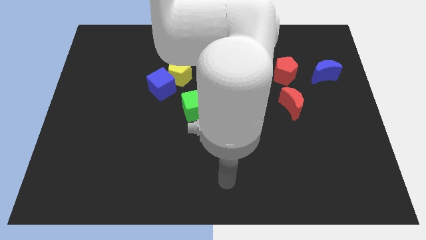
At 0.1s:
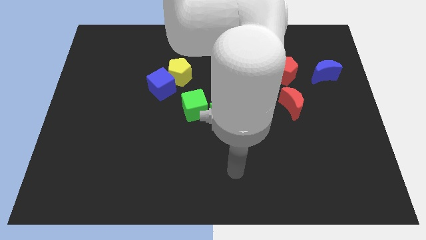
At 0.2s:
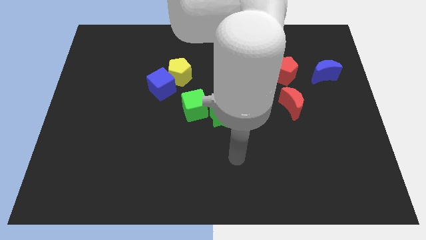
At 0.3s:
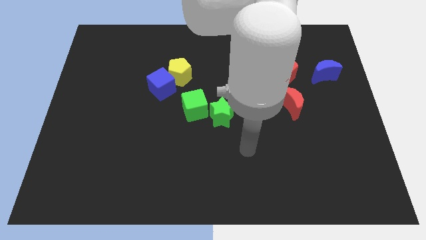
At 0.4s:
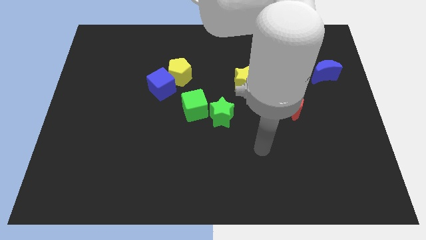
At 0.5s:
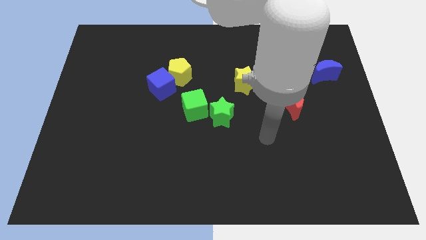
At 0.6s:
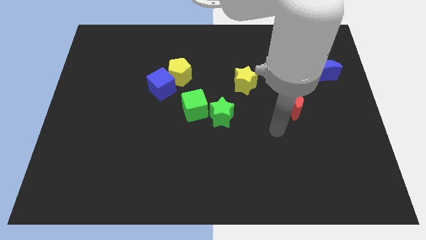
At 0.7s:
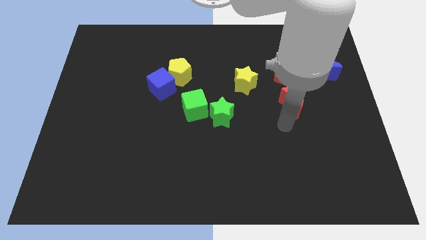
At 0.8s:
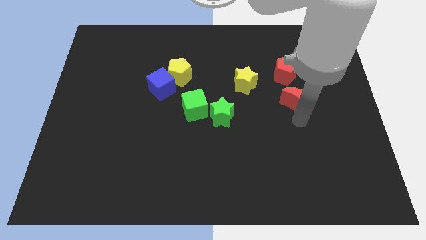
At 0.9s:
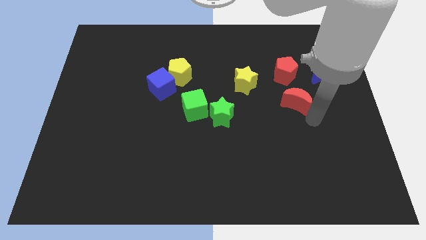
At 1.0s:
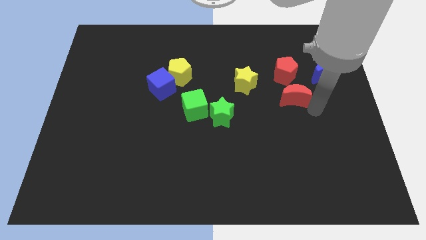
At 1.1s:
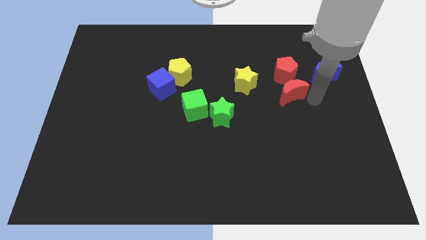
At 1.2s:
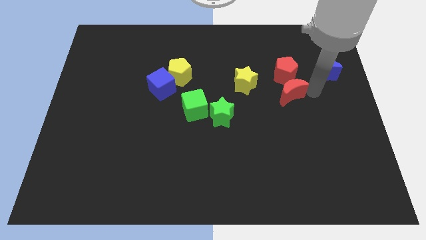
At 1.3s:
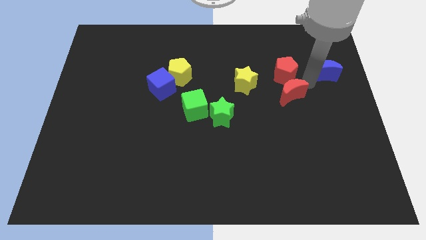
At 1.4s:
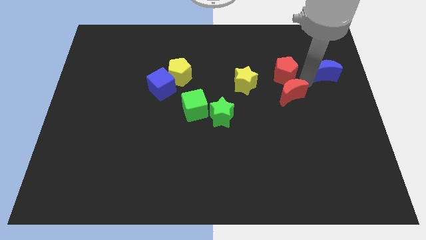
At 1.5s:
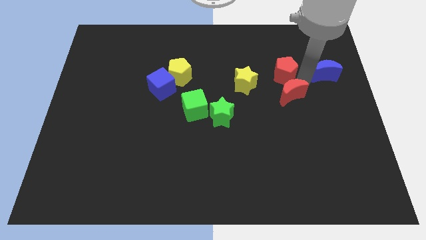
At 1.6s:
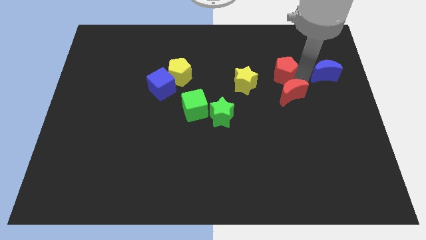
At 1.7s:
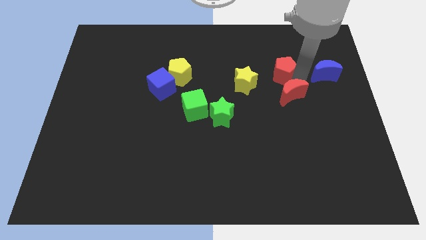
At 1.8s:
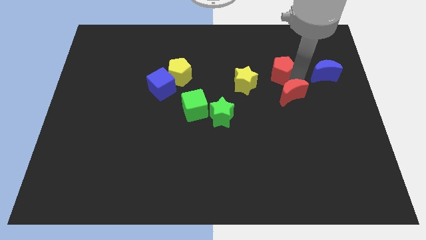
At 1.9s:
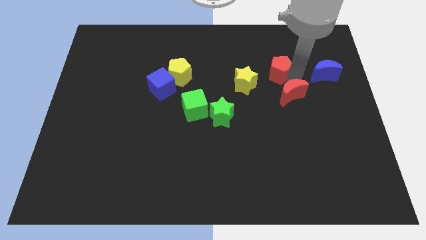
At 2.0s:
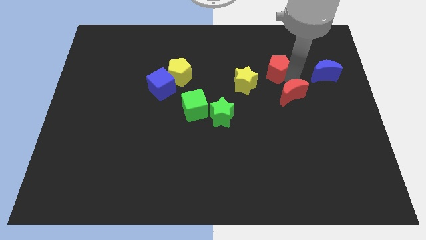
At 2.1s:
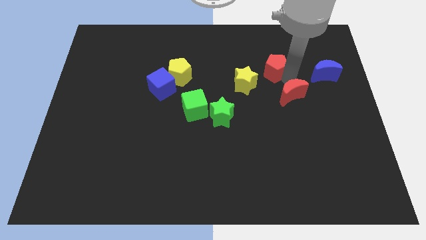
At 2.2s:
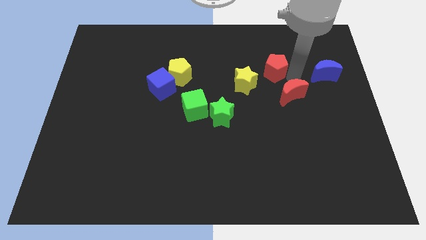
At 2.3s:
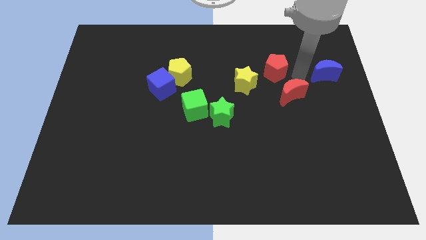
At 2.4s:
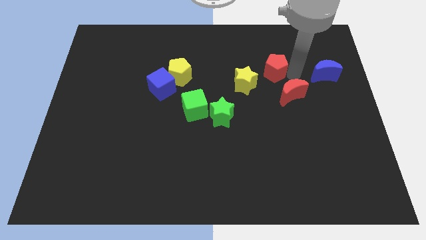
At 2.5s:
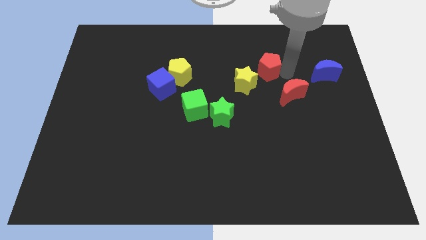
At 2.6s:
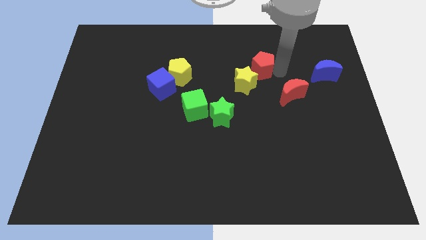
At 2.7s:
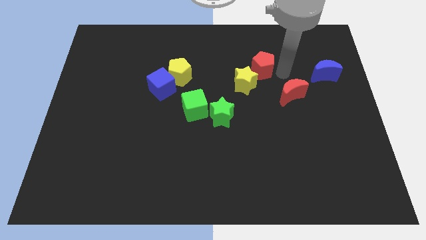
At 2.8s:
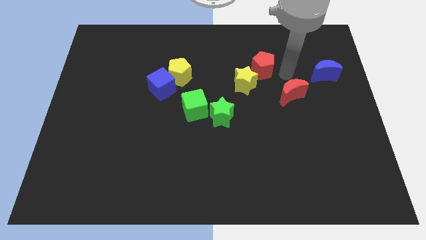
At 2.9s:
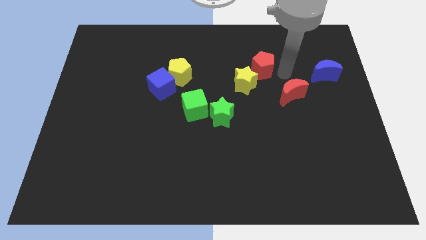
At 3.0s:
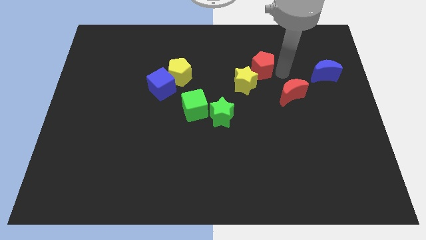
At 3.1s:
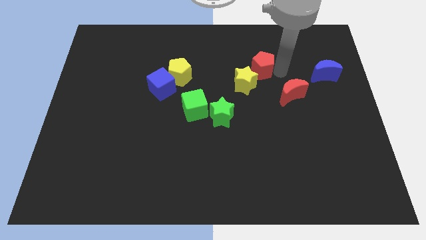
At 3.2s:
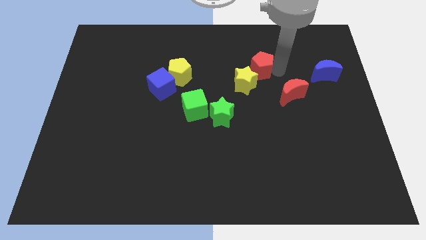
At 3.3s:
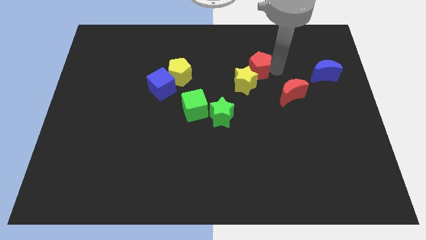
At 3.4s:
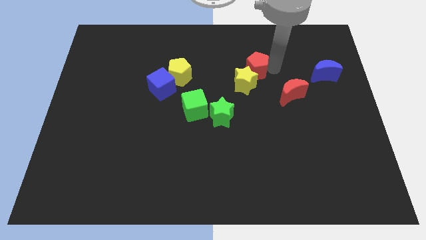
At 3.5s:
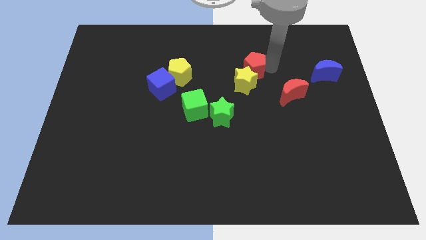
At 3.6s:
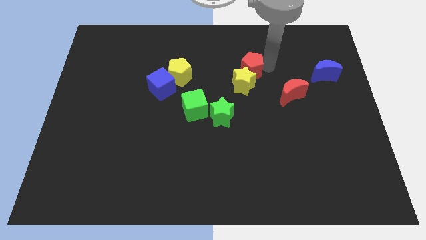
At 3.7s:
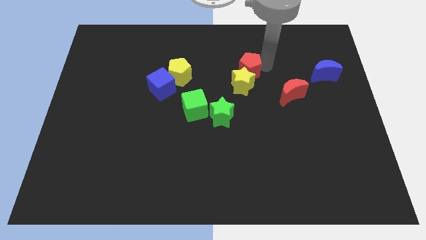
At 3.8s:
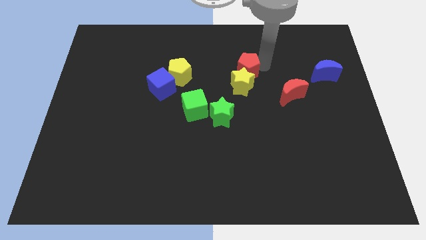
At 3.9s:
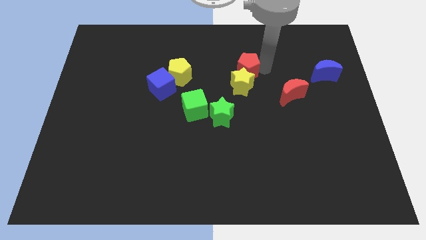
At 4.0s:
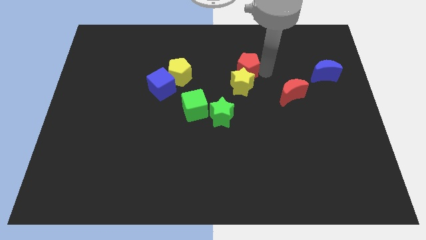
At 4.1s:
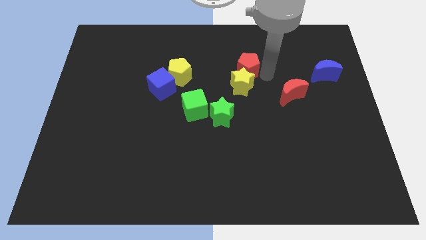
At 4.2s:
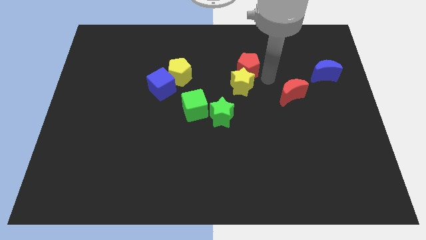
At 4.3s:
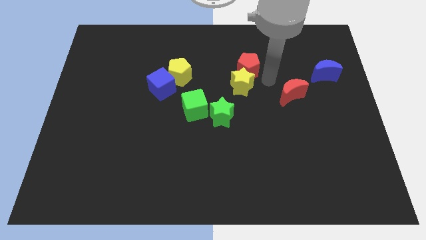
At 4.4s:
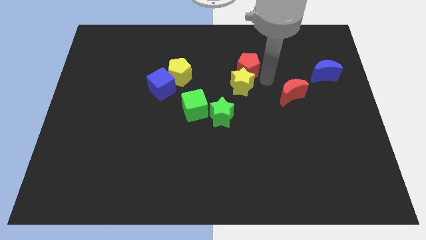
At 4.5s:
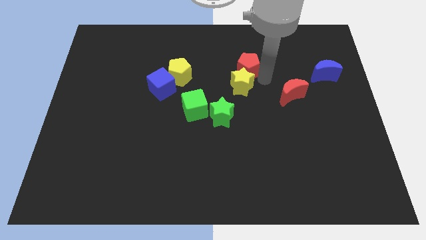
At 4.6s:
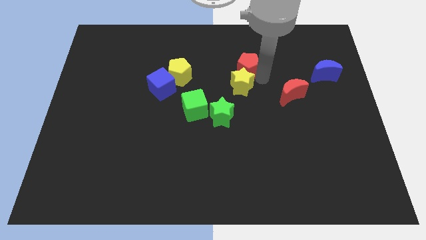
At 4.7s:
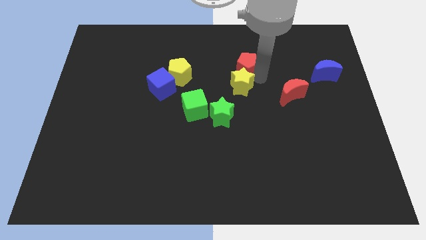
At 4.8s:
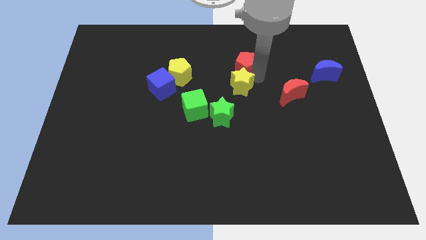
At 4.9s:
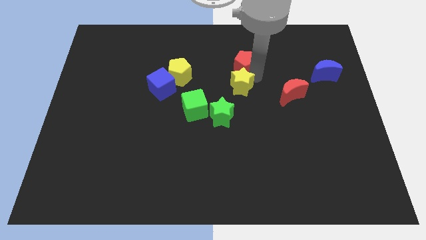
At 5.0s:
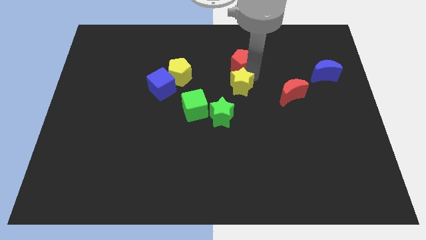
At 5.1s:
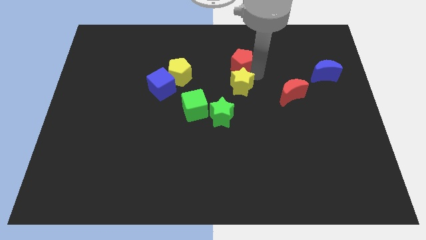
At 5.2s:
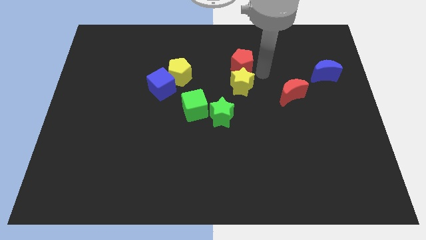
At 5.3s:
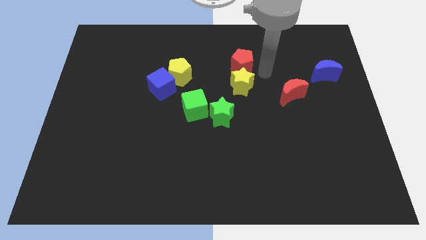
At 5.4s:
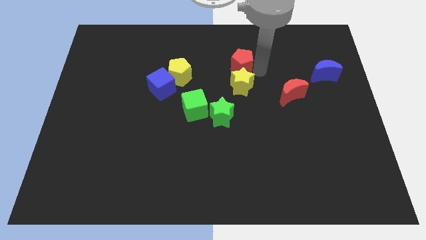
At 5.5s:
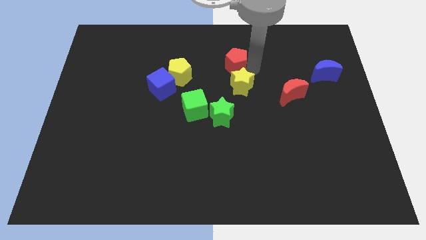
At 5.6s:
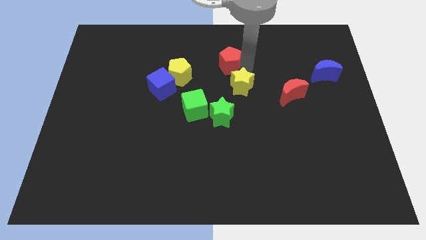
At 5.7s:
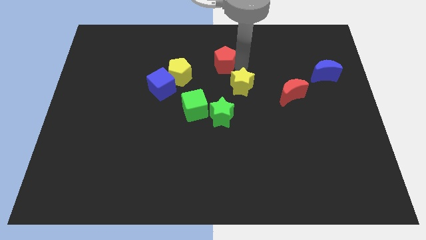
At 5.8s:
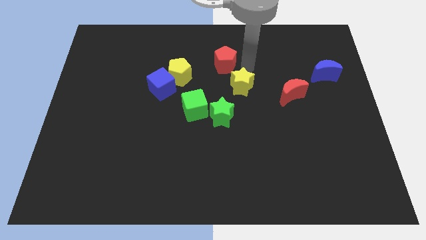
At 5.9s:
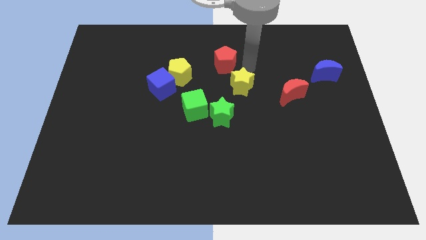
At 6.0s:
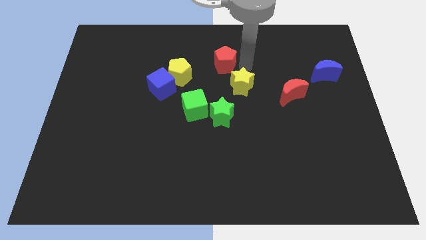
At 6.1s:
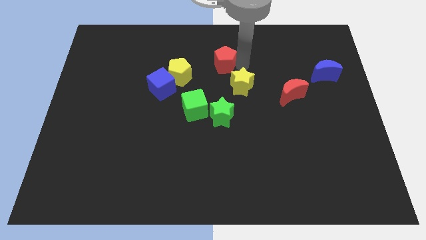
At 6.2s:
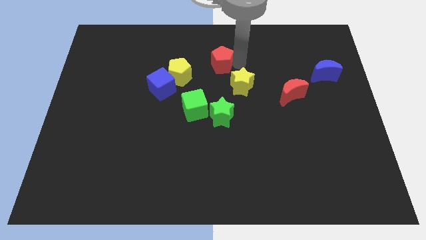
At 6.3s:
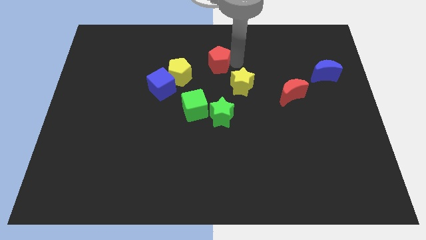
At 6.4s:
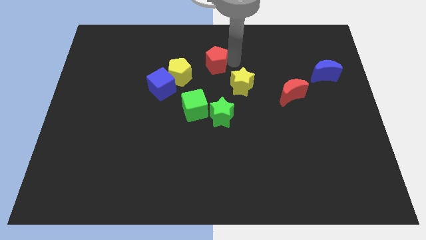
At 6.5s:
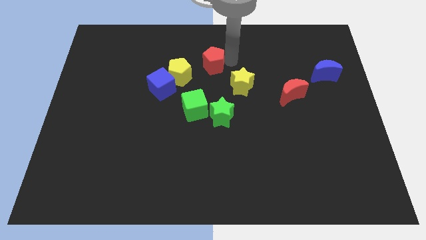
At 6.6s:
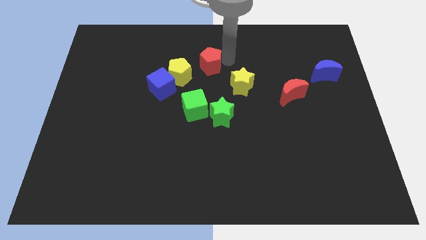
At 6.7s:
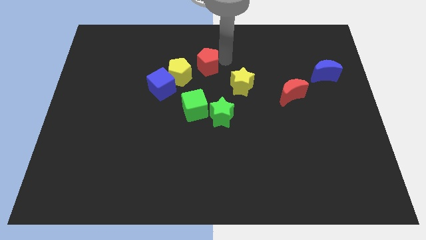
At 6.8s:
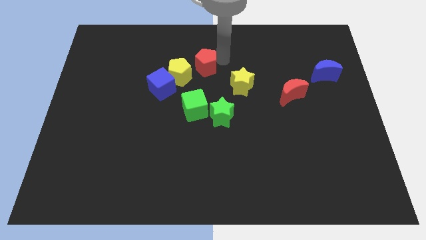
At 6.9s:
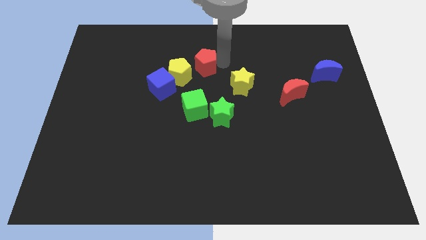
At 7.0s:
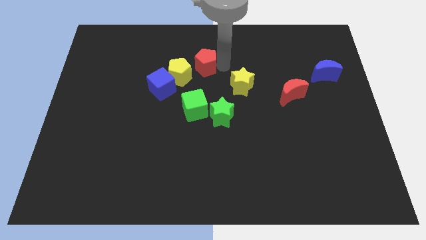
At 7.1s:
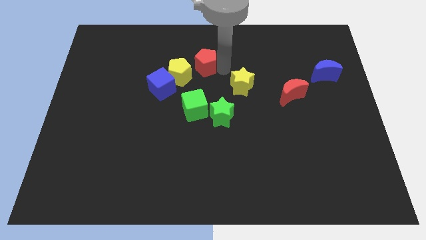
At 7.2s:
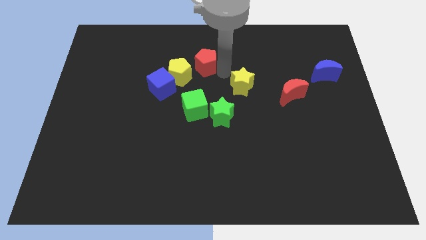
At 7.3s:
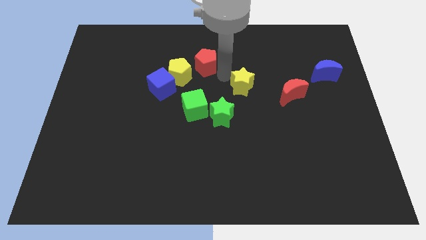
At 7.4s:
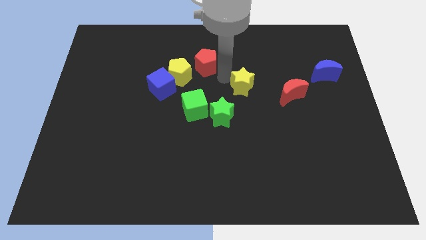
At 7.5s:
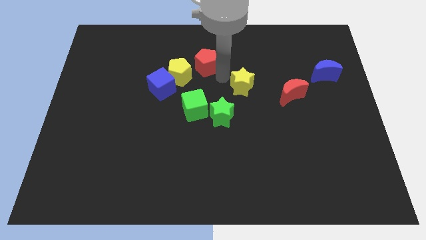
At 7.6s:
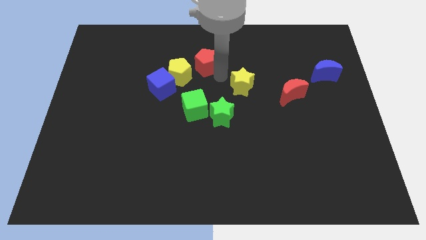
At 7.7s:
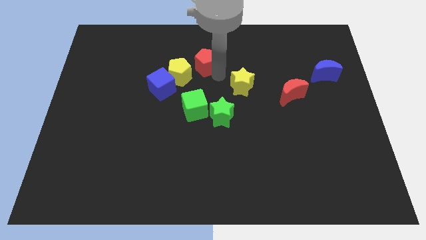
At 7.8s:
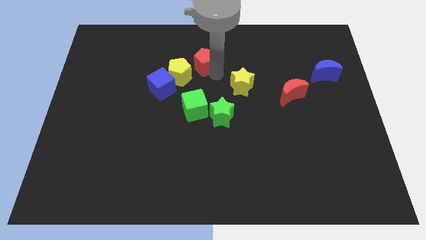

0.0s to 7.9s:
slide the red pentagon left

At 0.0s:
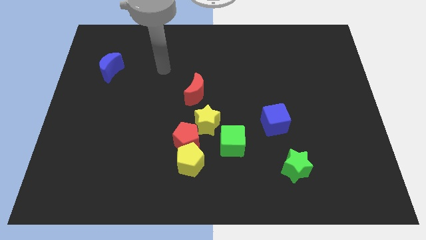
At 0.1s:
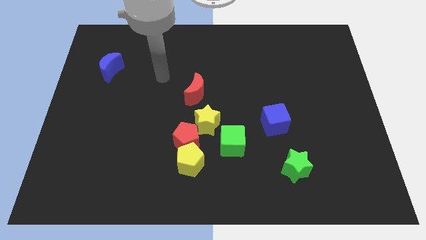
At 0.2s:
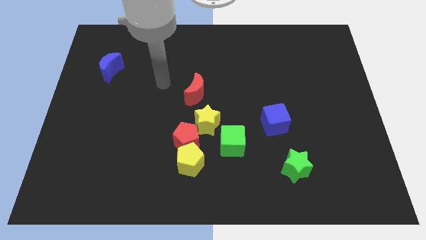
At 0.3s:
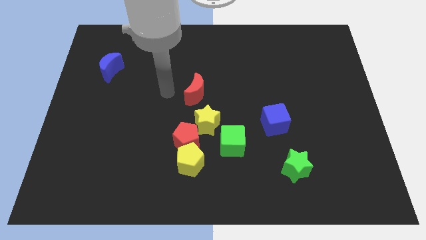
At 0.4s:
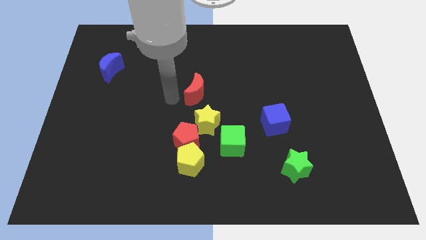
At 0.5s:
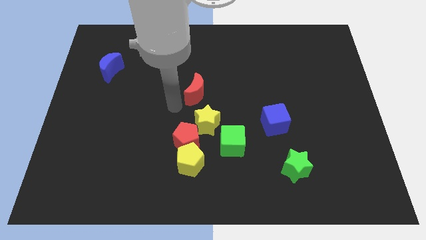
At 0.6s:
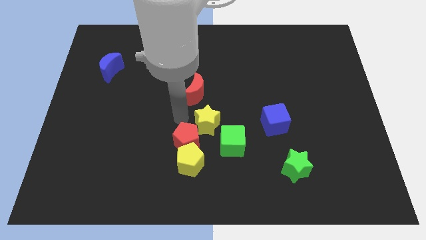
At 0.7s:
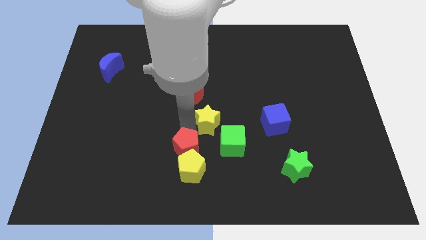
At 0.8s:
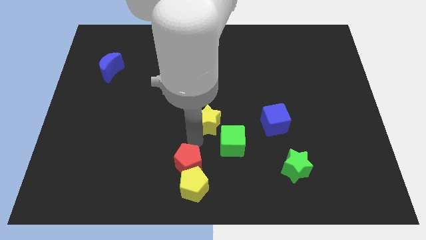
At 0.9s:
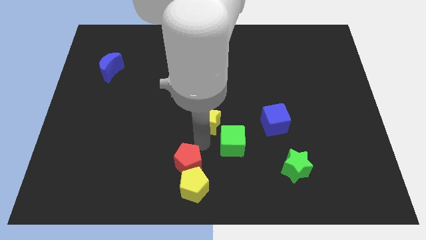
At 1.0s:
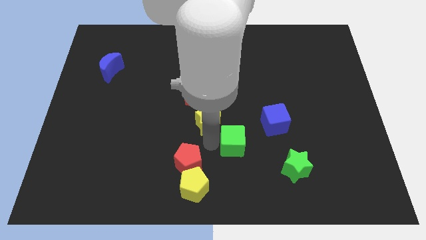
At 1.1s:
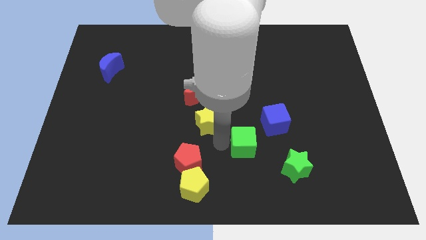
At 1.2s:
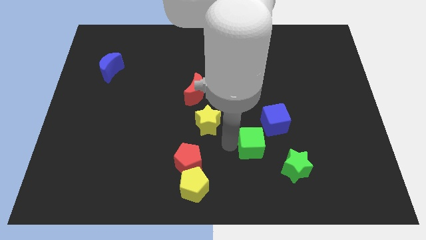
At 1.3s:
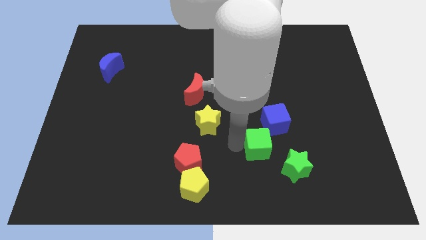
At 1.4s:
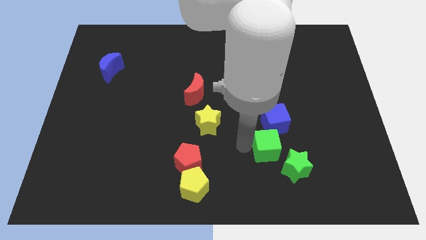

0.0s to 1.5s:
slide the green cube a bit to the right
